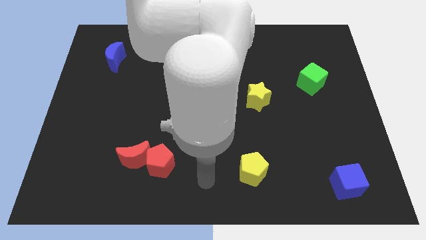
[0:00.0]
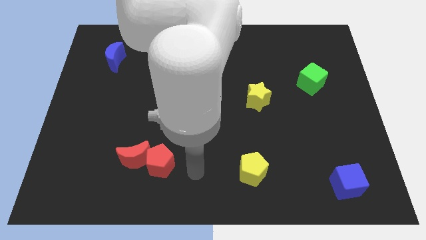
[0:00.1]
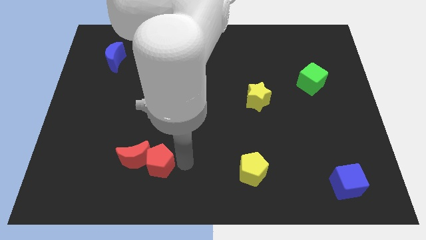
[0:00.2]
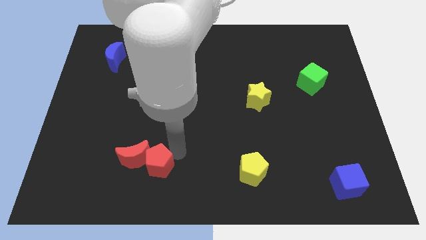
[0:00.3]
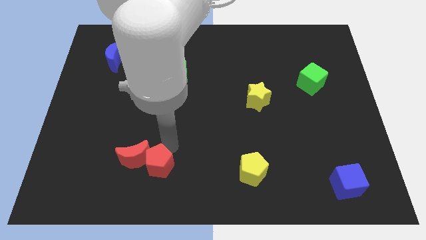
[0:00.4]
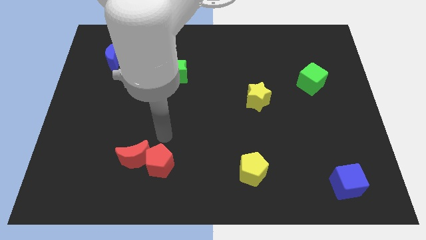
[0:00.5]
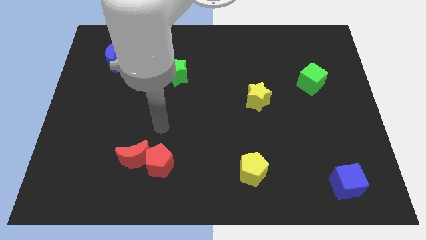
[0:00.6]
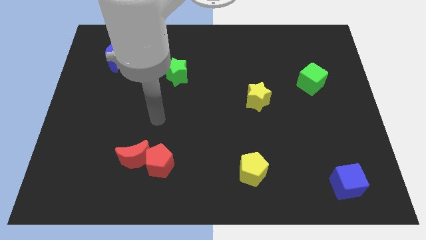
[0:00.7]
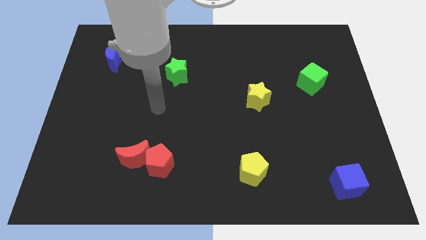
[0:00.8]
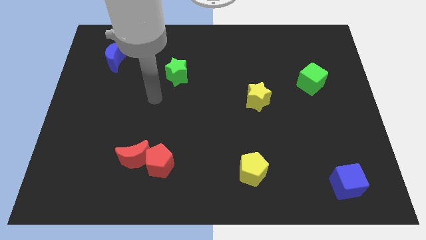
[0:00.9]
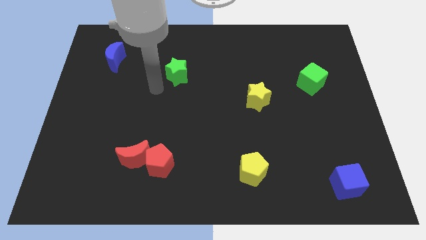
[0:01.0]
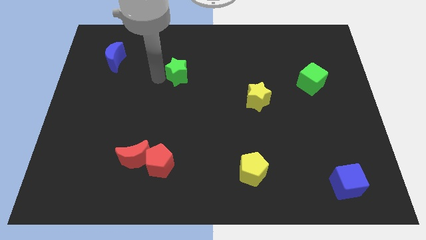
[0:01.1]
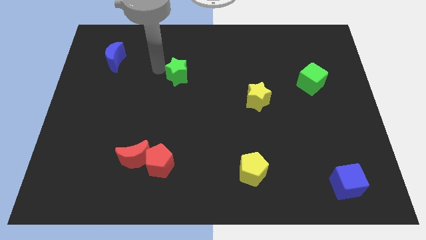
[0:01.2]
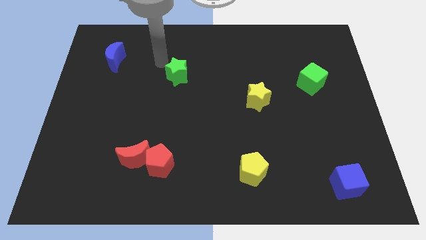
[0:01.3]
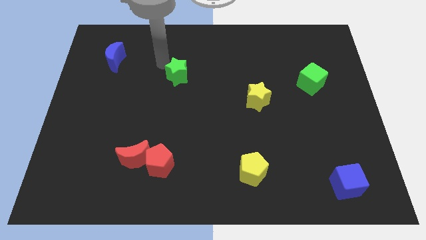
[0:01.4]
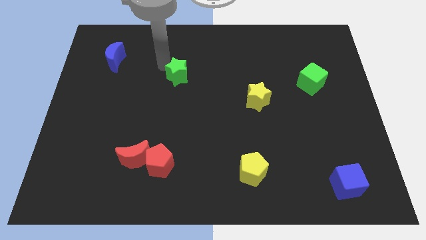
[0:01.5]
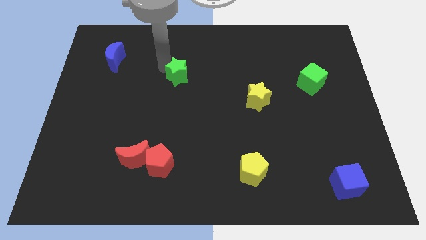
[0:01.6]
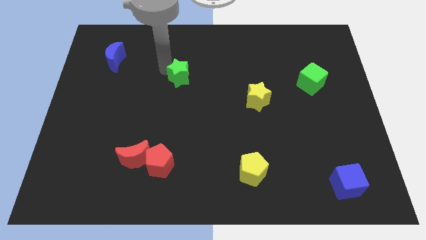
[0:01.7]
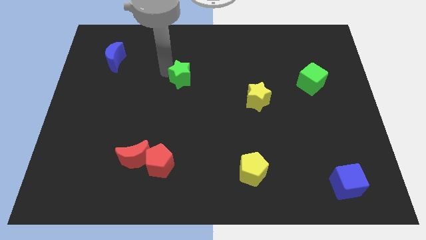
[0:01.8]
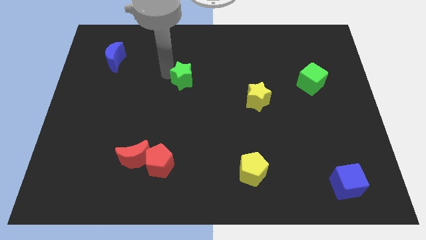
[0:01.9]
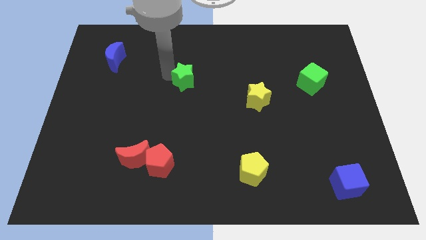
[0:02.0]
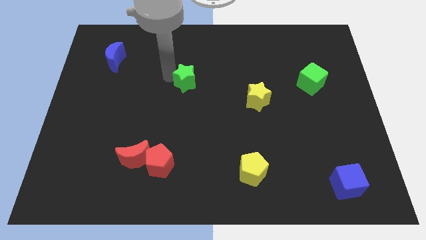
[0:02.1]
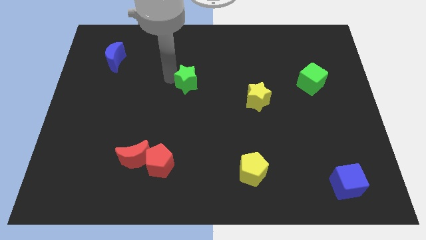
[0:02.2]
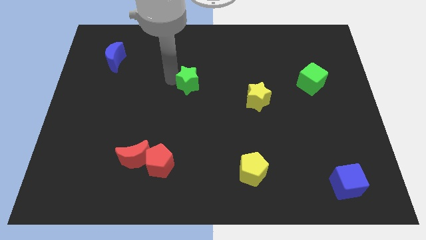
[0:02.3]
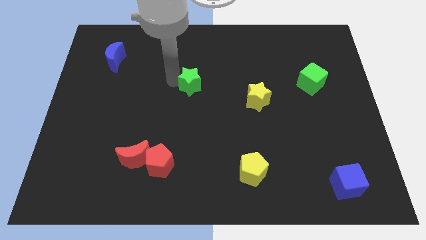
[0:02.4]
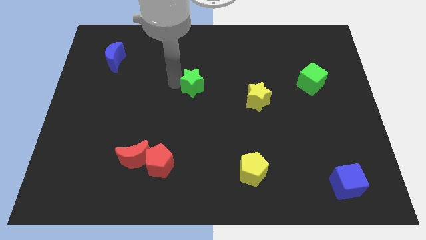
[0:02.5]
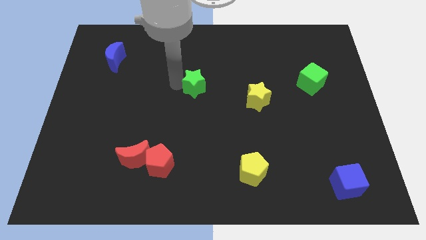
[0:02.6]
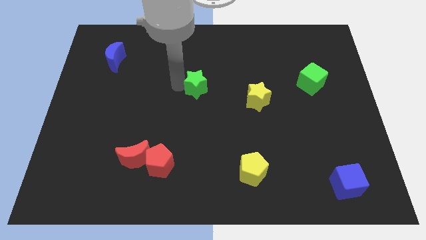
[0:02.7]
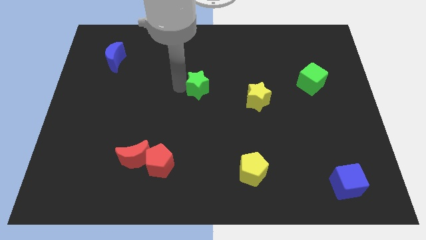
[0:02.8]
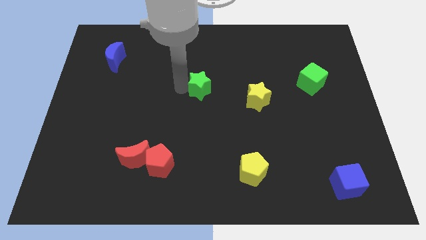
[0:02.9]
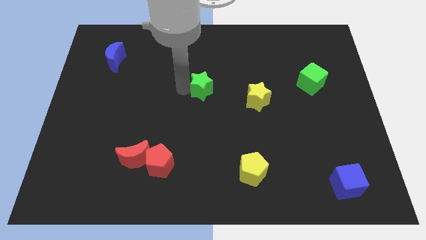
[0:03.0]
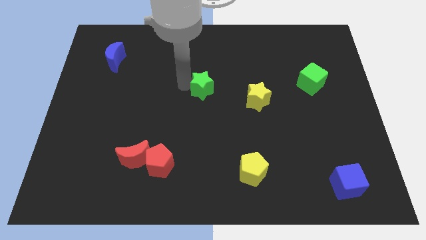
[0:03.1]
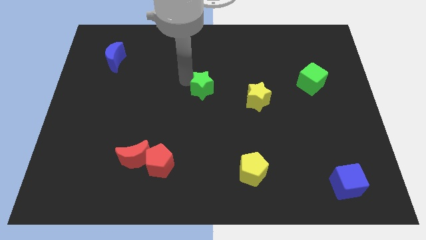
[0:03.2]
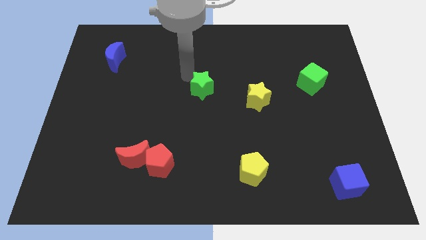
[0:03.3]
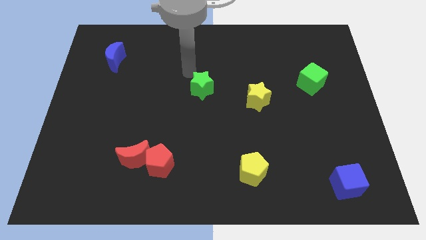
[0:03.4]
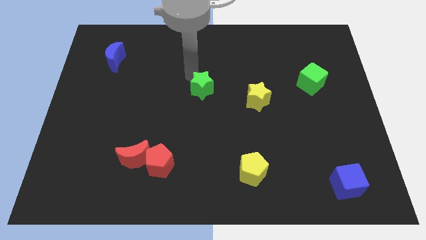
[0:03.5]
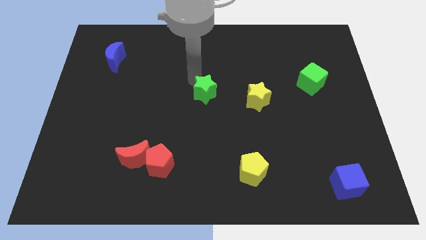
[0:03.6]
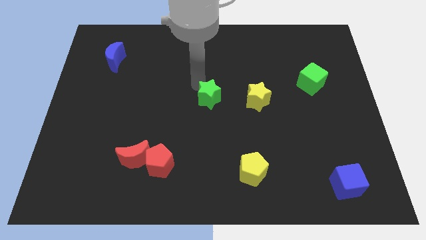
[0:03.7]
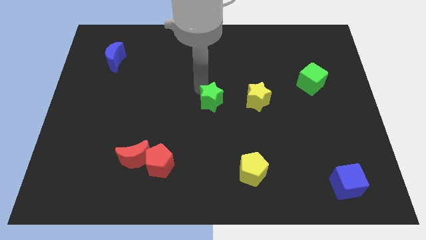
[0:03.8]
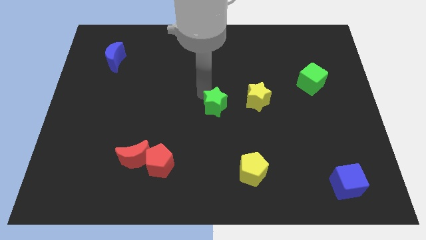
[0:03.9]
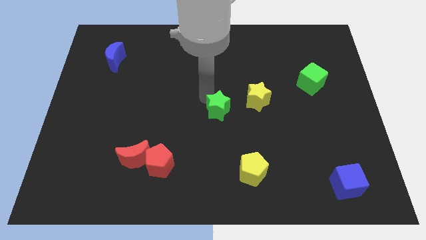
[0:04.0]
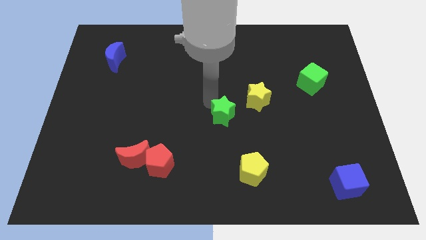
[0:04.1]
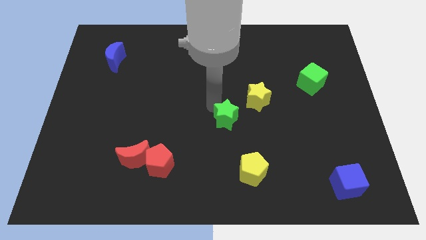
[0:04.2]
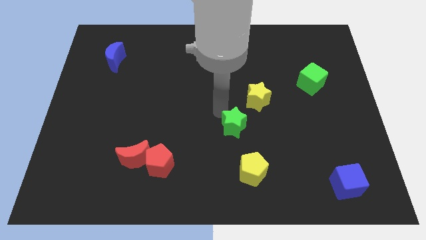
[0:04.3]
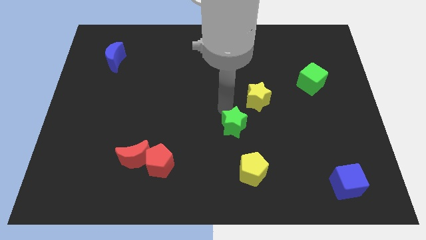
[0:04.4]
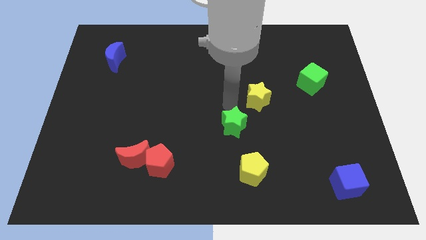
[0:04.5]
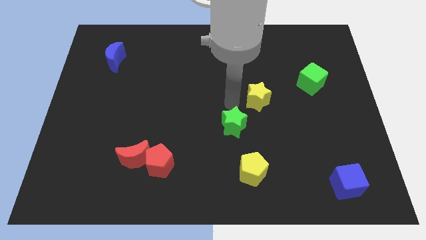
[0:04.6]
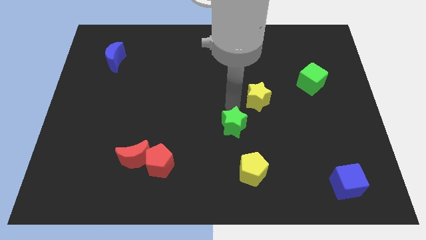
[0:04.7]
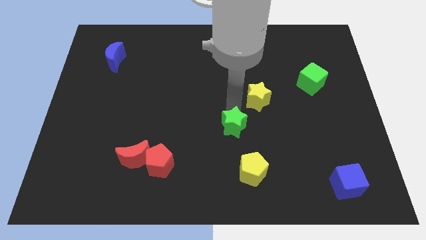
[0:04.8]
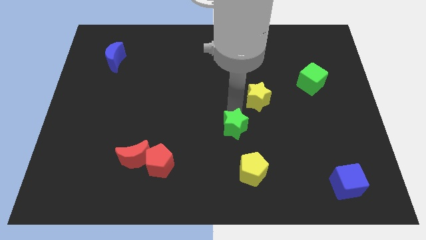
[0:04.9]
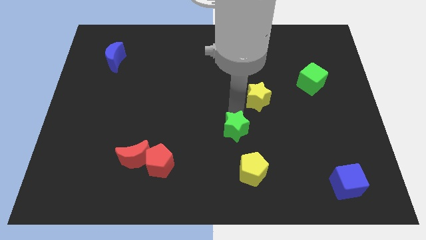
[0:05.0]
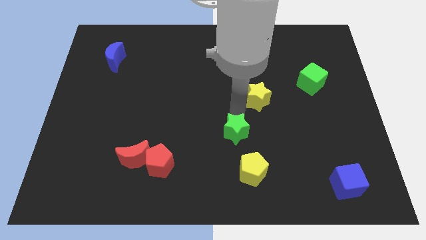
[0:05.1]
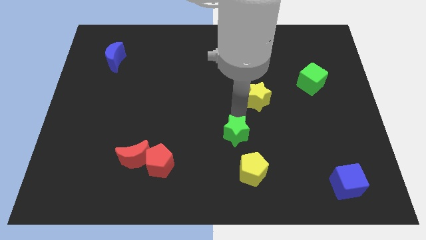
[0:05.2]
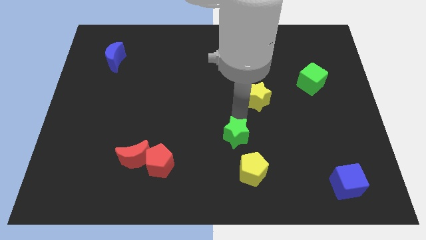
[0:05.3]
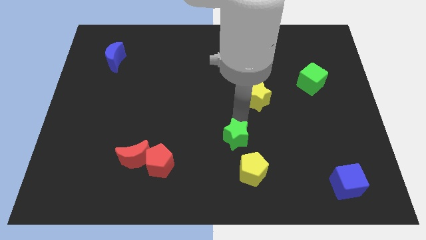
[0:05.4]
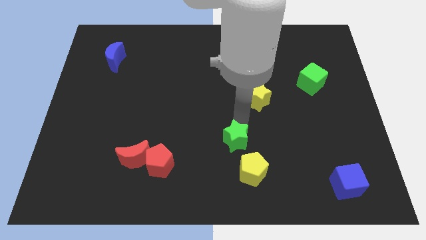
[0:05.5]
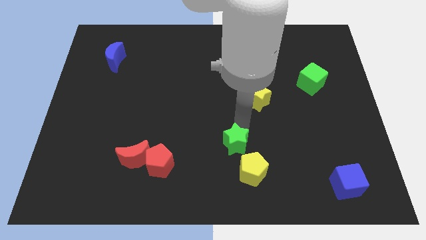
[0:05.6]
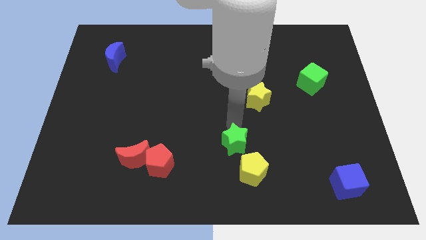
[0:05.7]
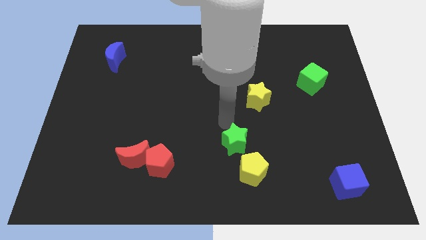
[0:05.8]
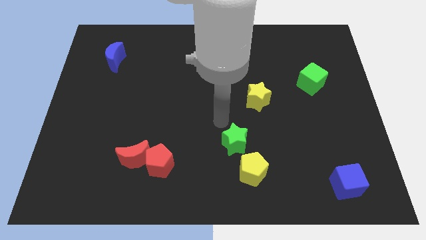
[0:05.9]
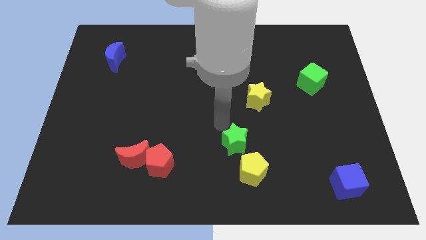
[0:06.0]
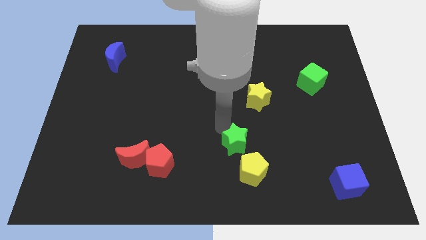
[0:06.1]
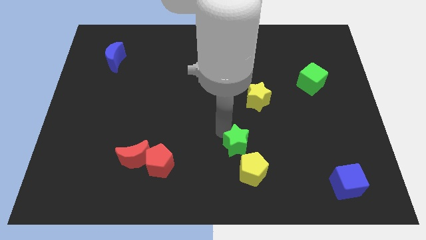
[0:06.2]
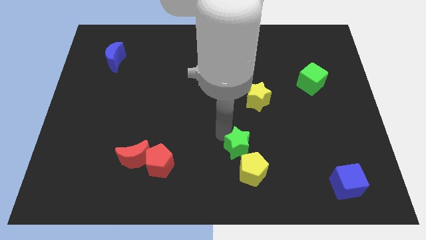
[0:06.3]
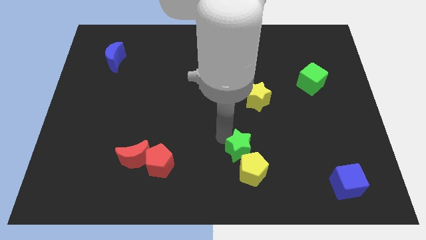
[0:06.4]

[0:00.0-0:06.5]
move the green star next to the yellow pentagon

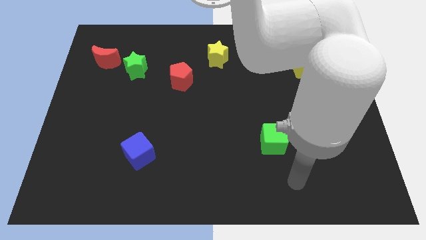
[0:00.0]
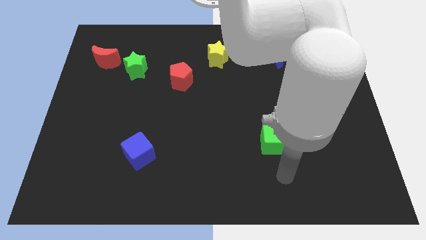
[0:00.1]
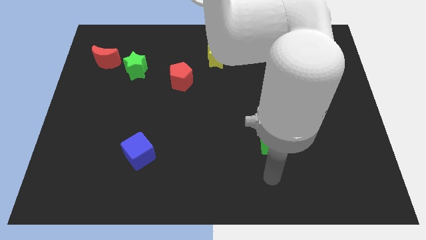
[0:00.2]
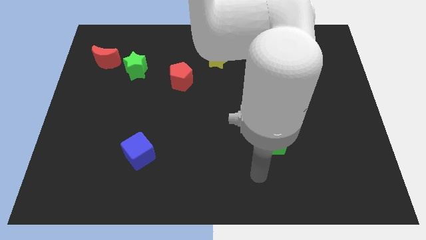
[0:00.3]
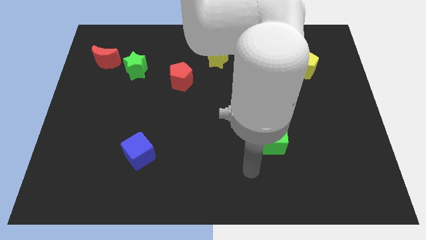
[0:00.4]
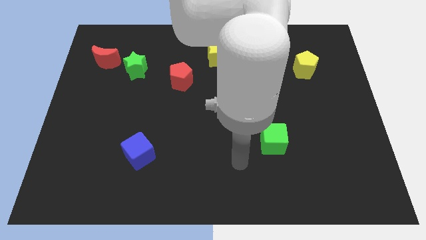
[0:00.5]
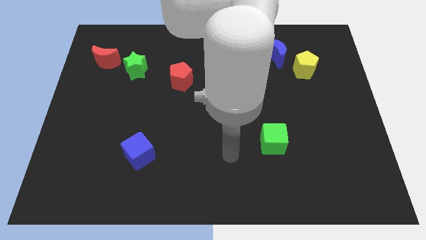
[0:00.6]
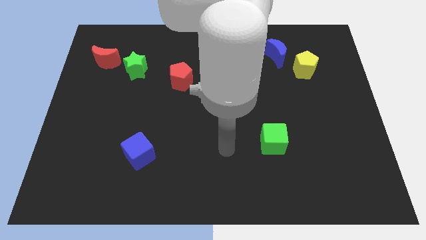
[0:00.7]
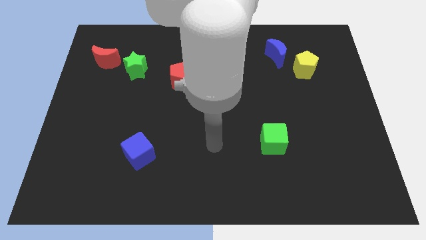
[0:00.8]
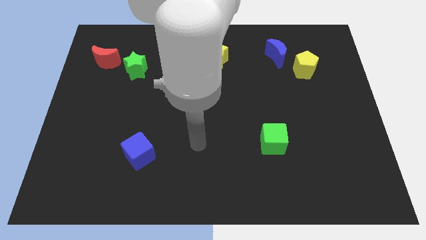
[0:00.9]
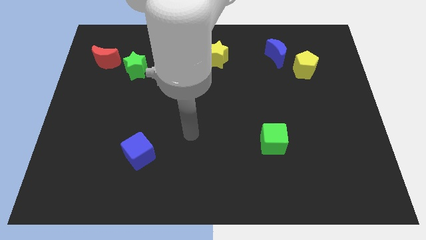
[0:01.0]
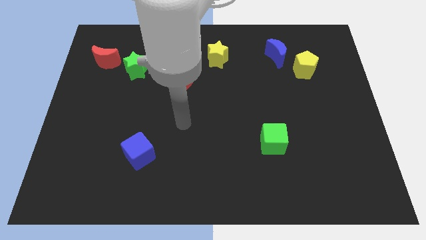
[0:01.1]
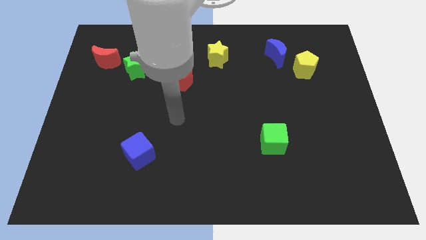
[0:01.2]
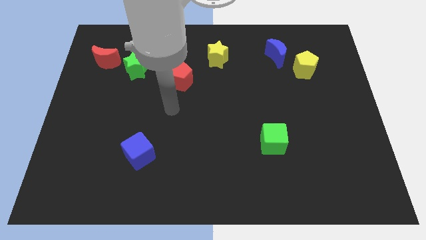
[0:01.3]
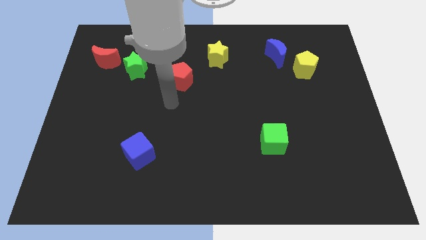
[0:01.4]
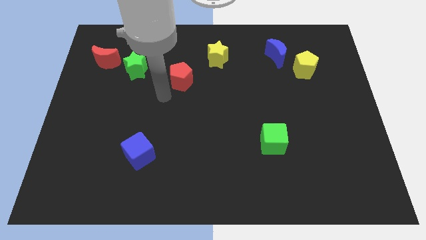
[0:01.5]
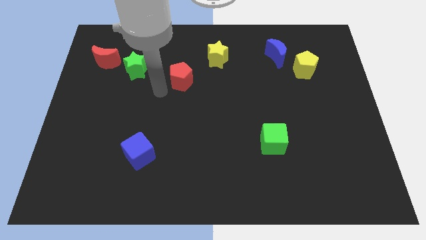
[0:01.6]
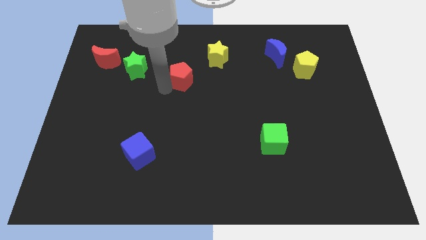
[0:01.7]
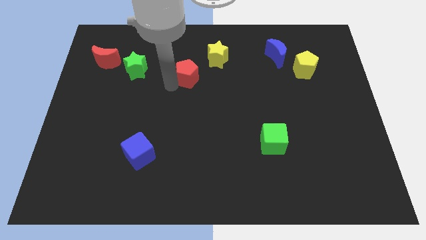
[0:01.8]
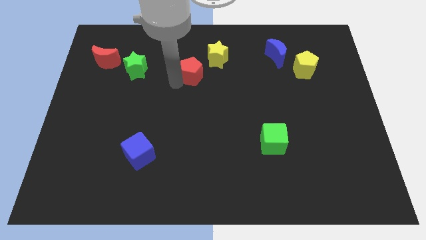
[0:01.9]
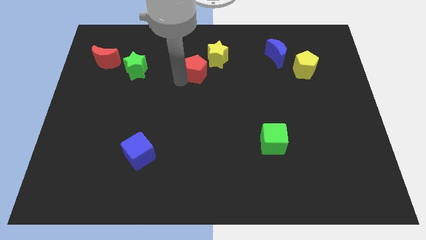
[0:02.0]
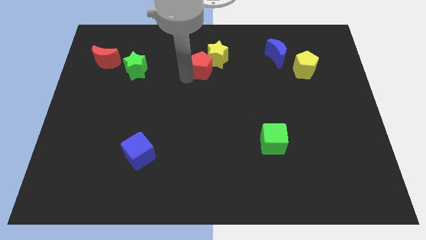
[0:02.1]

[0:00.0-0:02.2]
put the red pentagon close to the yellow star
